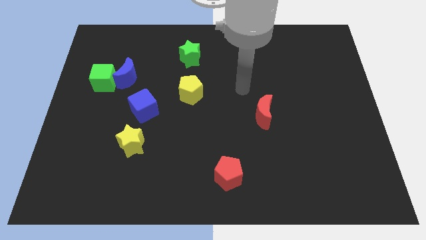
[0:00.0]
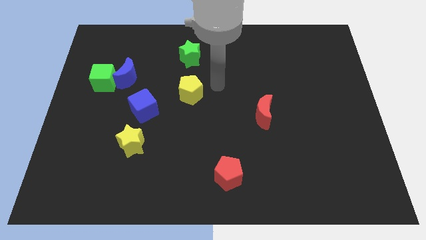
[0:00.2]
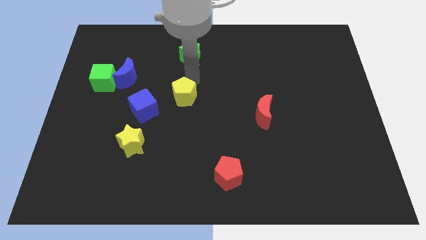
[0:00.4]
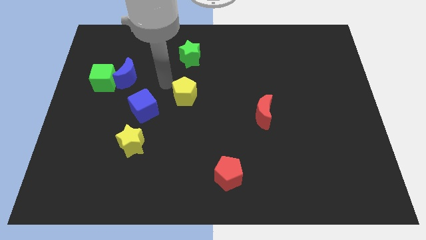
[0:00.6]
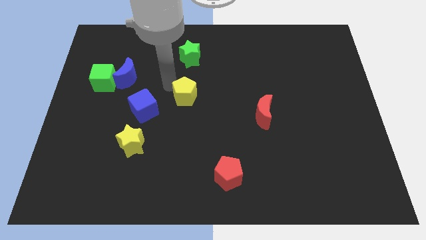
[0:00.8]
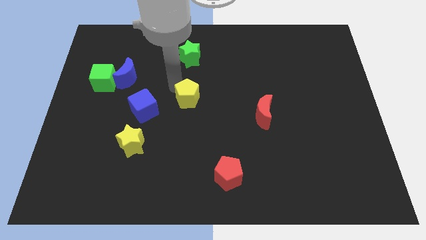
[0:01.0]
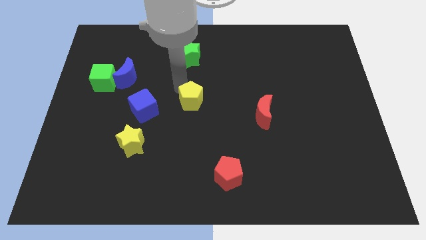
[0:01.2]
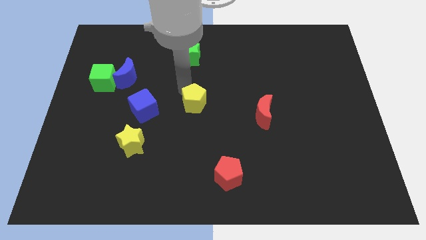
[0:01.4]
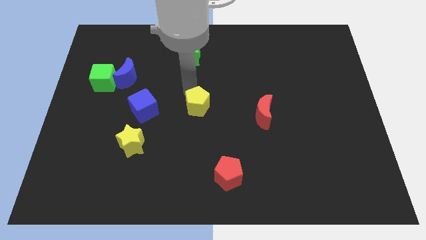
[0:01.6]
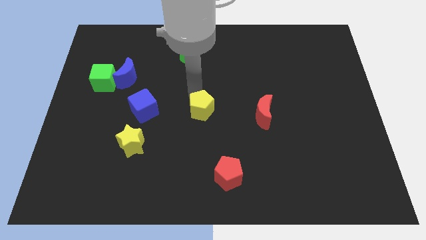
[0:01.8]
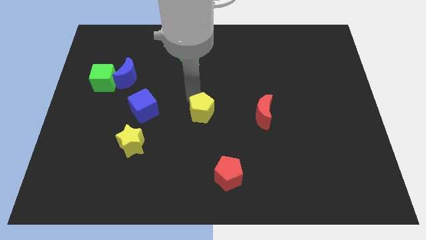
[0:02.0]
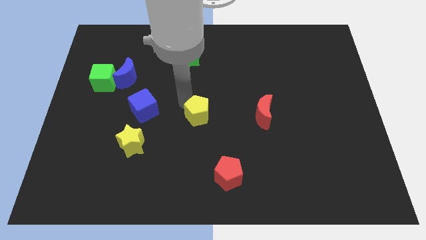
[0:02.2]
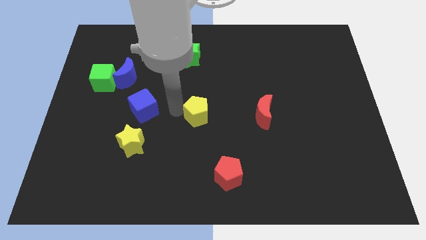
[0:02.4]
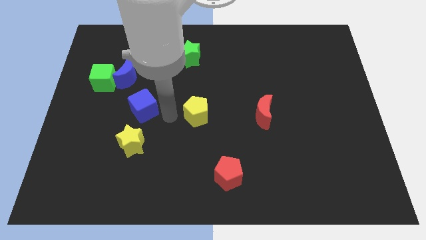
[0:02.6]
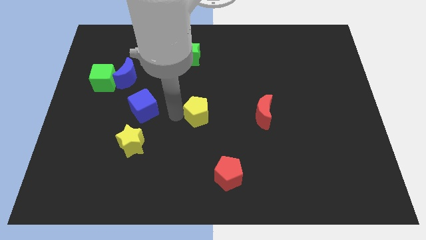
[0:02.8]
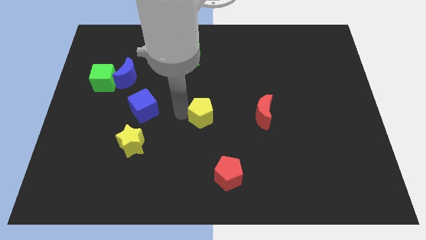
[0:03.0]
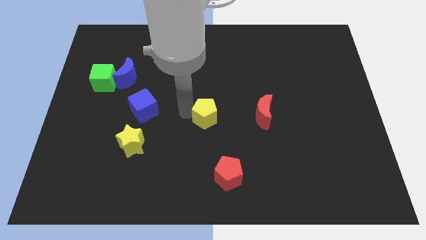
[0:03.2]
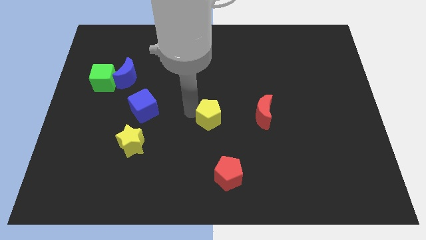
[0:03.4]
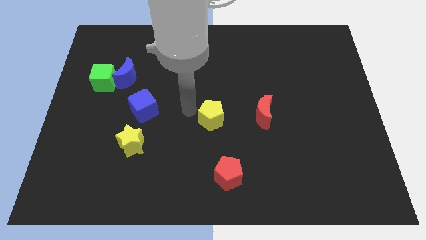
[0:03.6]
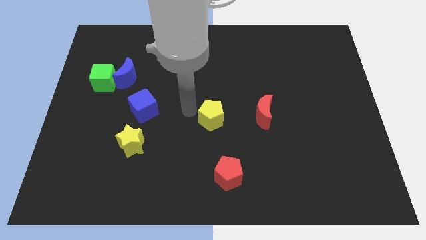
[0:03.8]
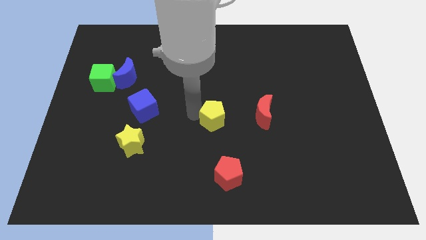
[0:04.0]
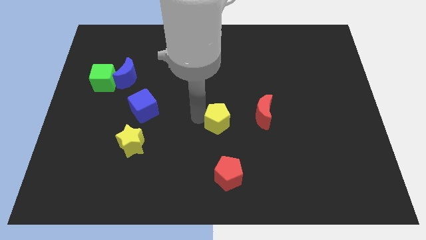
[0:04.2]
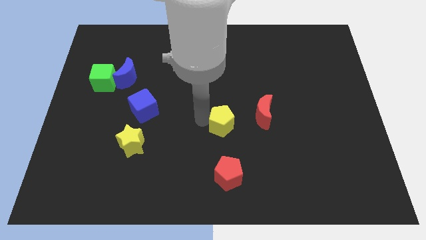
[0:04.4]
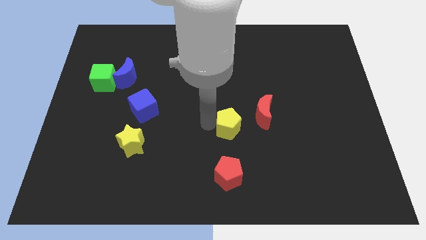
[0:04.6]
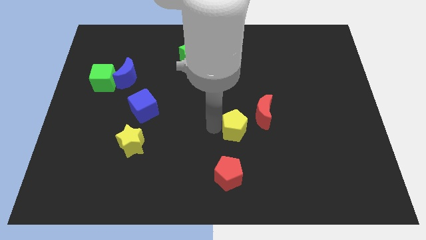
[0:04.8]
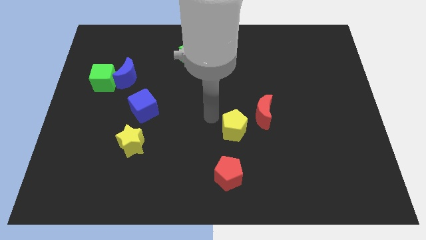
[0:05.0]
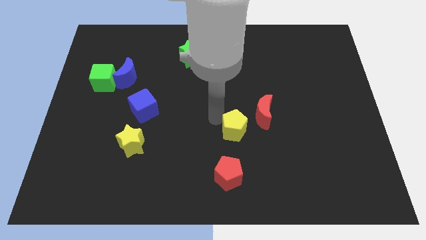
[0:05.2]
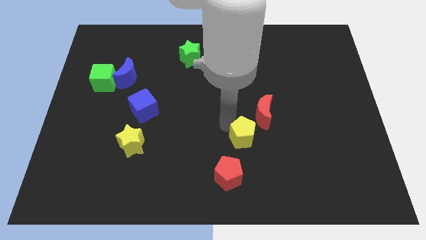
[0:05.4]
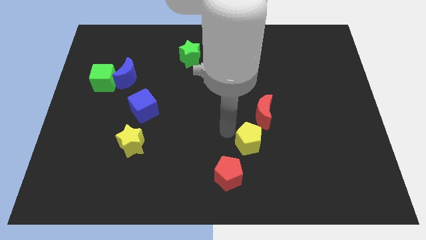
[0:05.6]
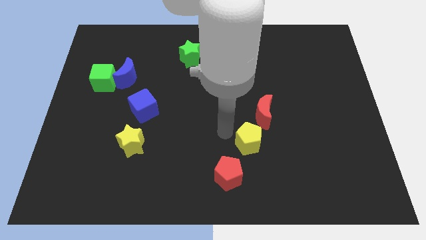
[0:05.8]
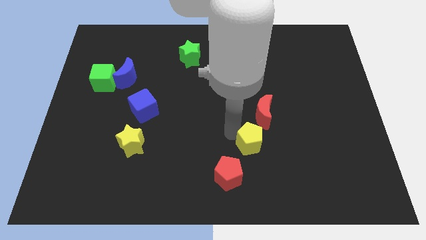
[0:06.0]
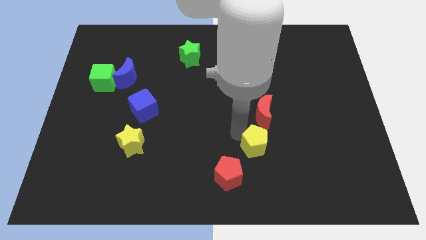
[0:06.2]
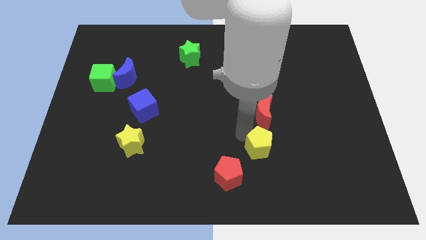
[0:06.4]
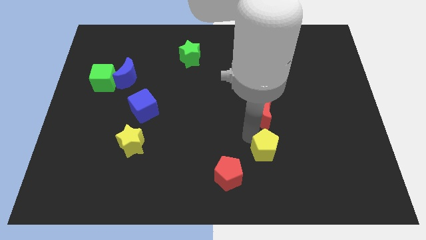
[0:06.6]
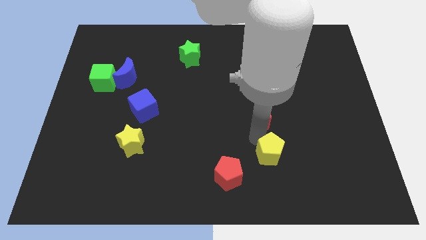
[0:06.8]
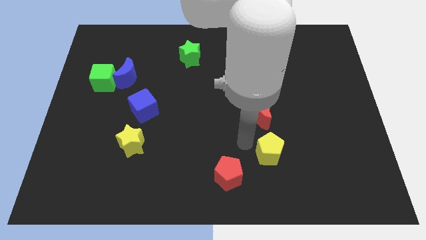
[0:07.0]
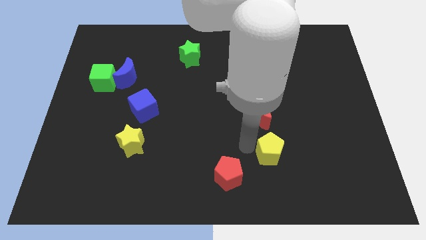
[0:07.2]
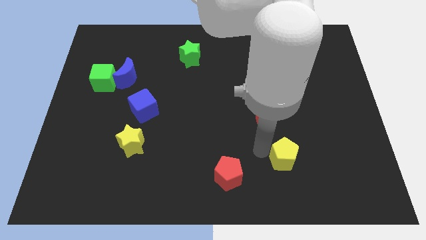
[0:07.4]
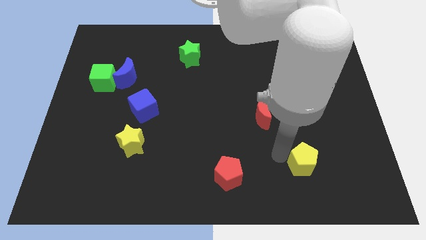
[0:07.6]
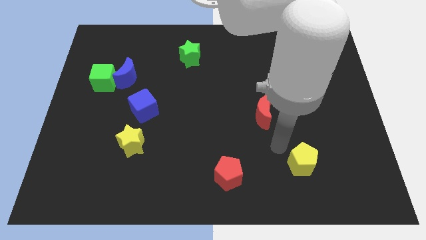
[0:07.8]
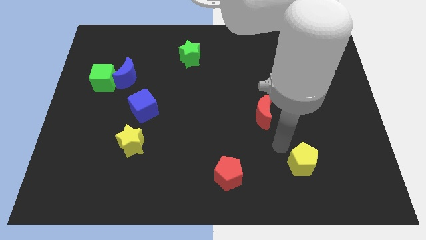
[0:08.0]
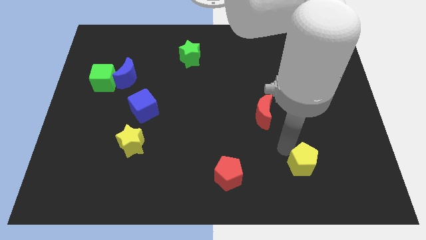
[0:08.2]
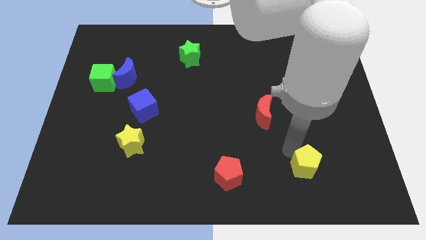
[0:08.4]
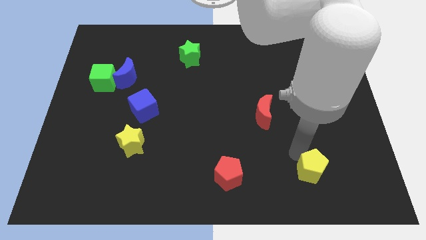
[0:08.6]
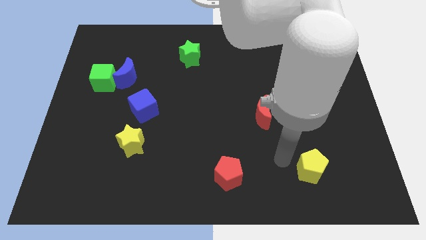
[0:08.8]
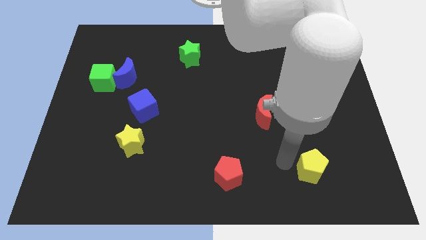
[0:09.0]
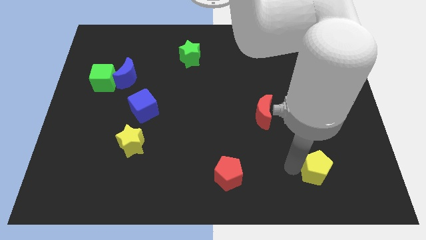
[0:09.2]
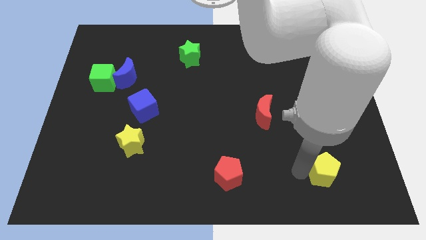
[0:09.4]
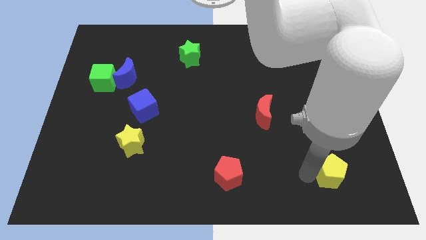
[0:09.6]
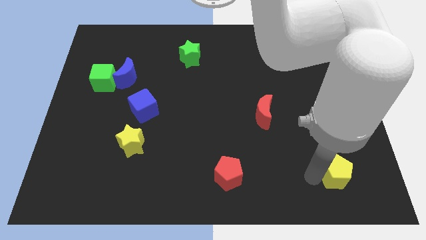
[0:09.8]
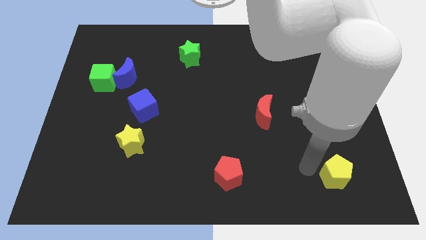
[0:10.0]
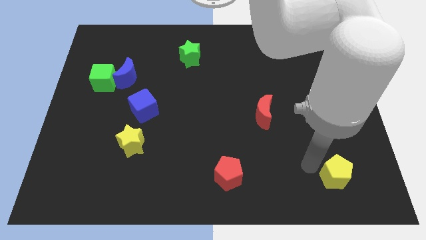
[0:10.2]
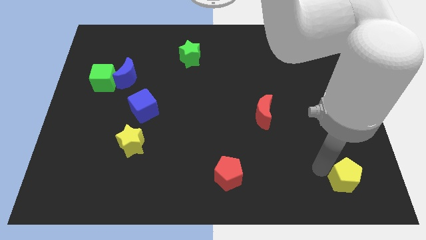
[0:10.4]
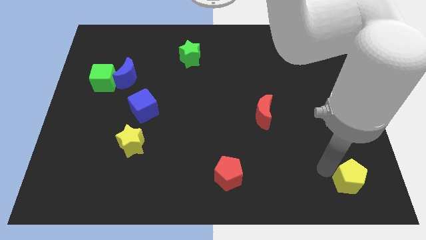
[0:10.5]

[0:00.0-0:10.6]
slide the yellow pentagon to the bottom right
